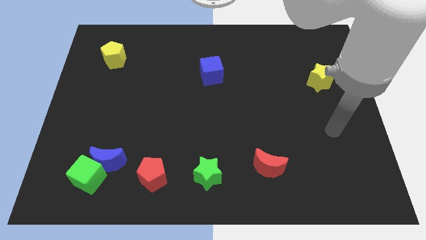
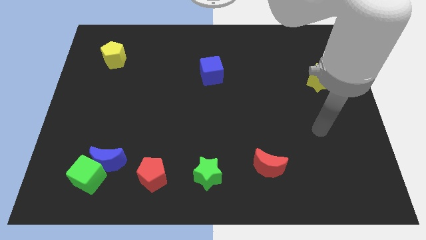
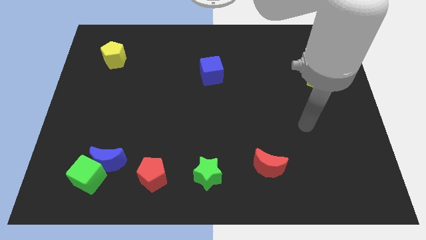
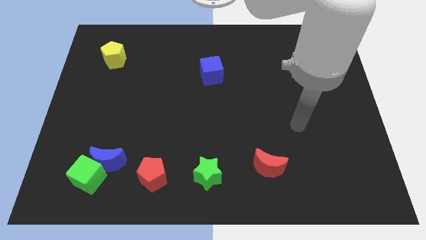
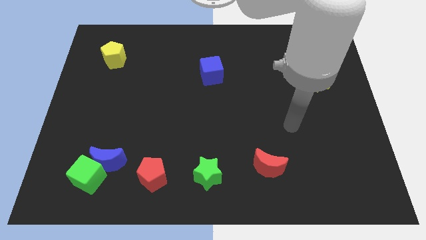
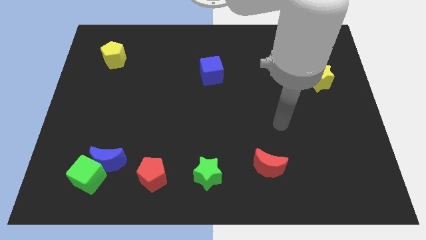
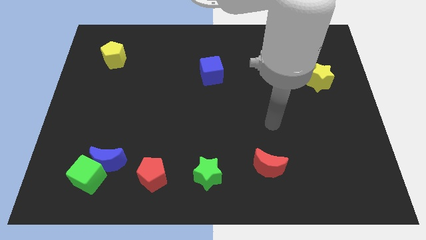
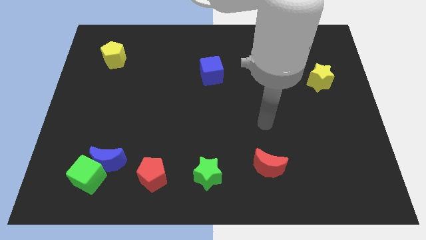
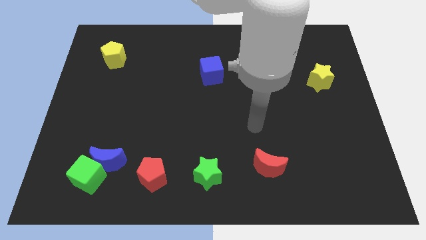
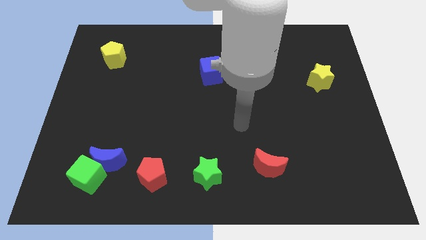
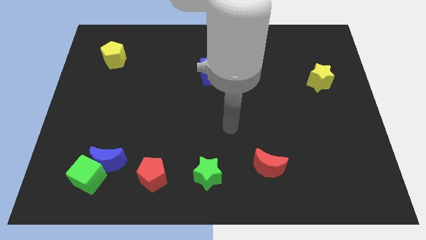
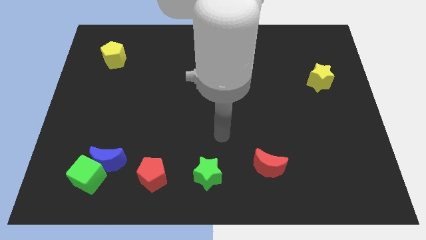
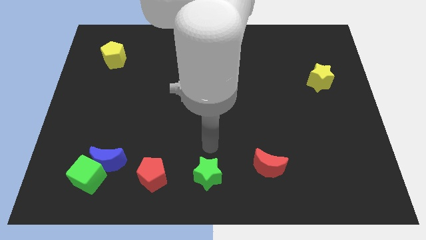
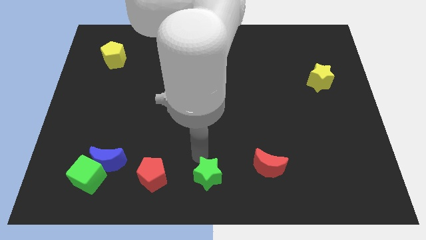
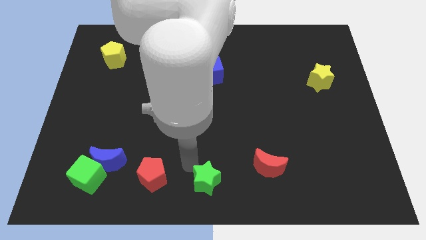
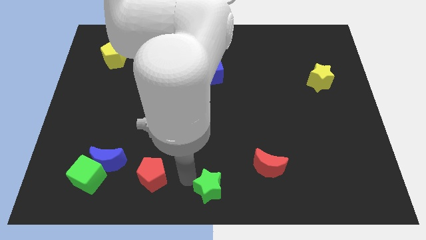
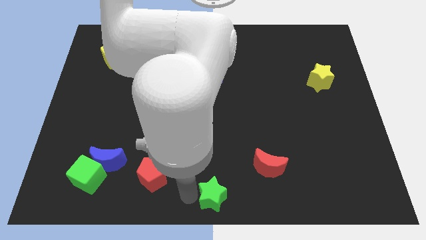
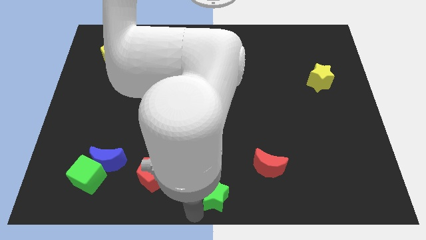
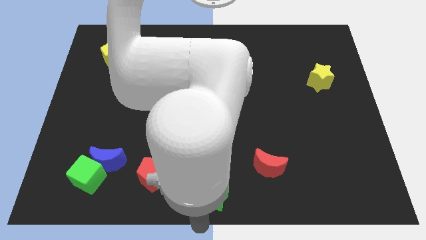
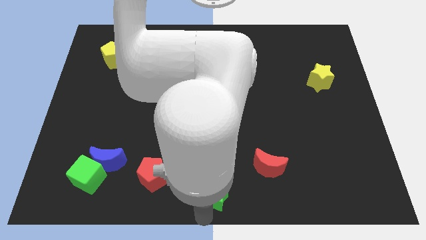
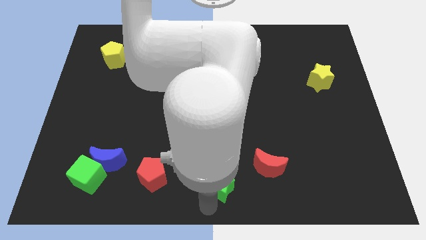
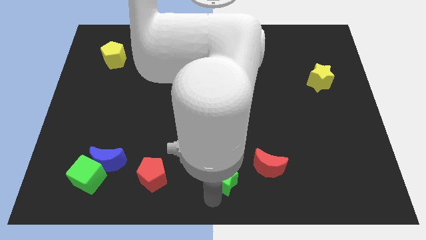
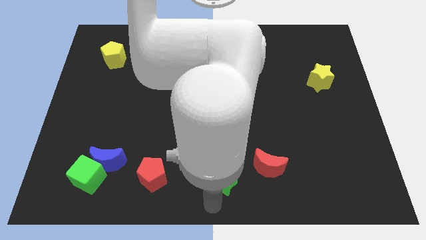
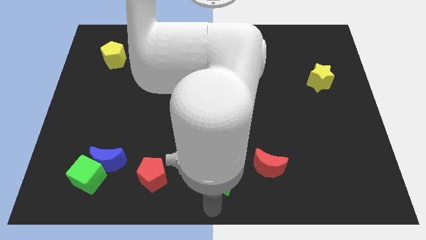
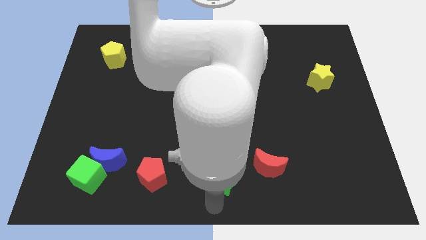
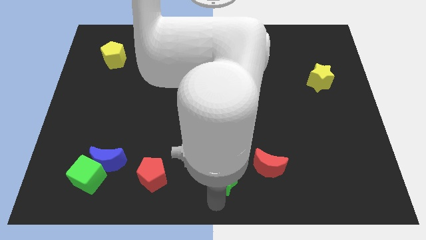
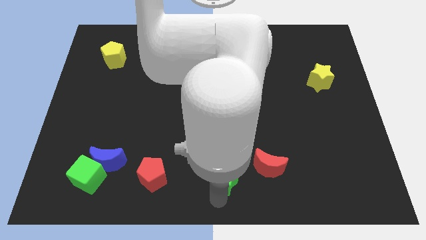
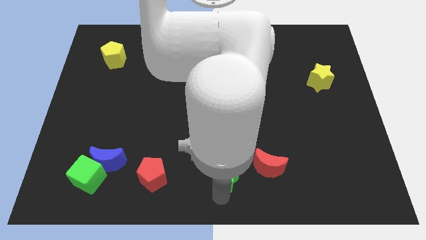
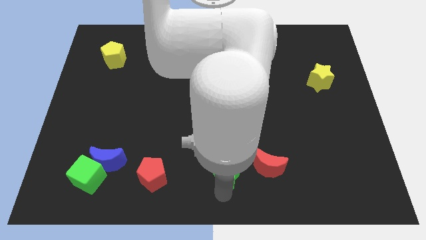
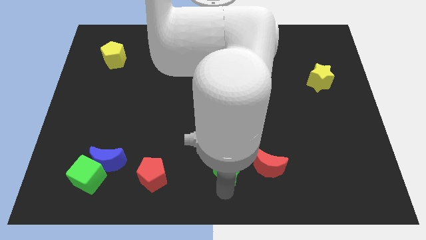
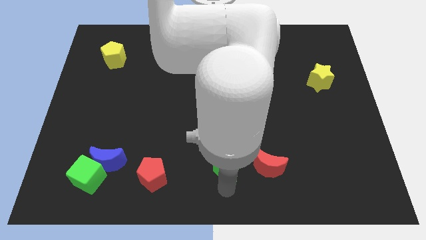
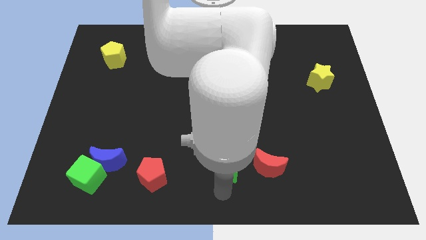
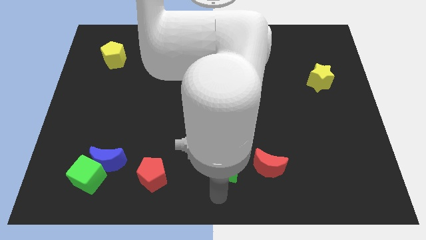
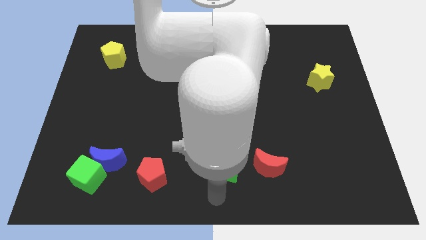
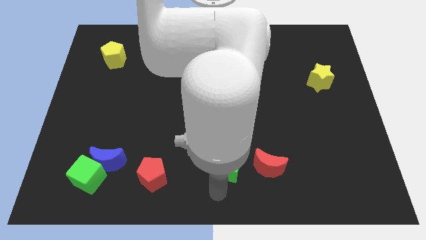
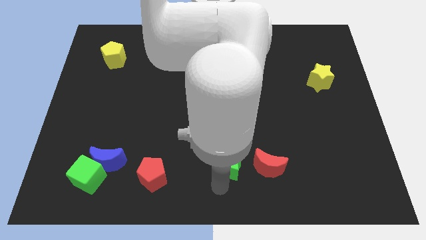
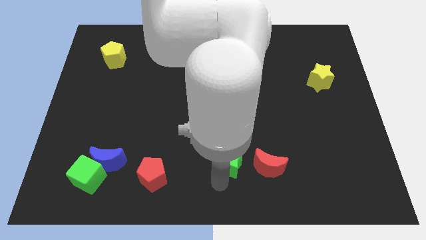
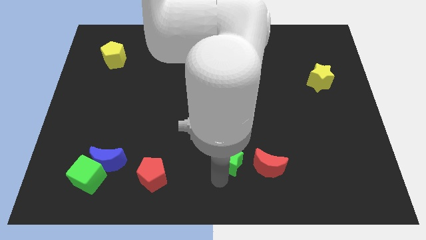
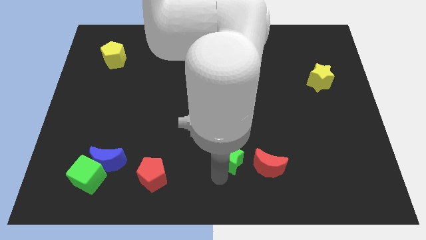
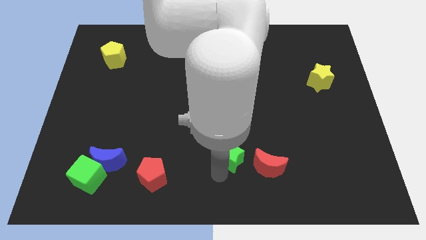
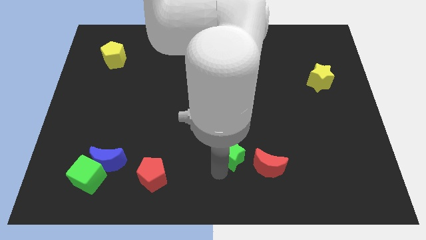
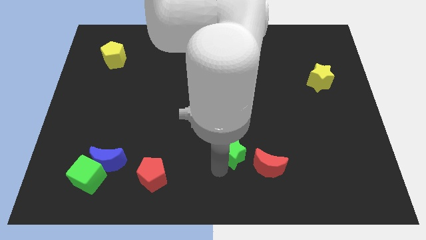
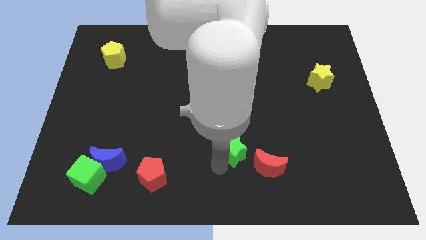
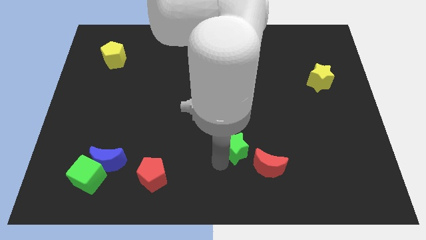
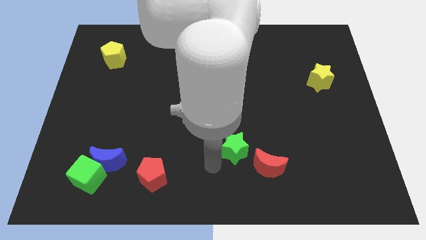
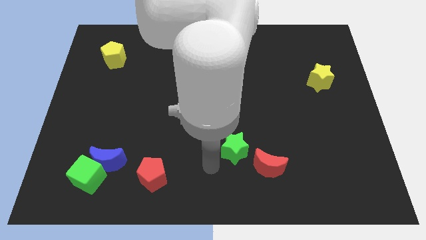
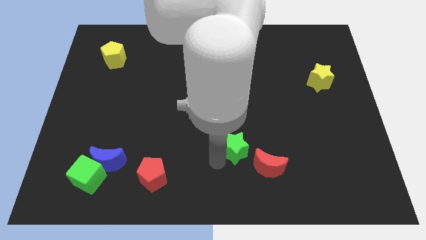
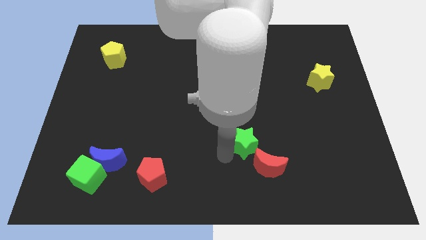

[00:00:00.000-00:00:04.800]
put the green star to the top of the red moon

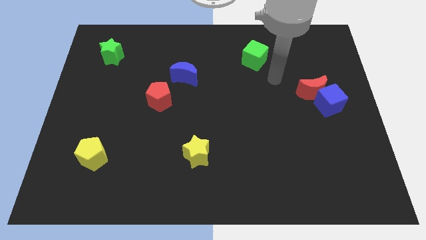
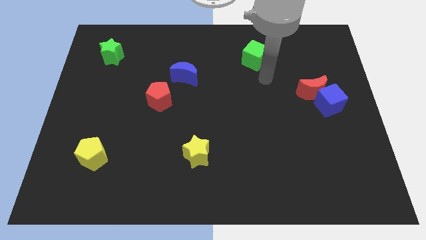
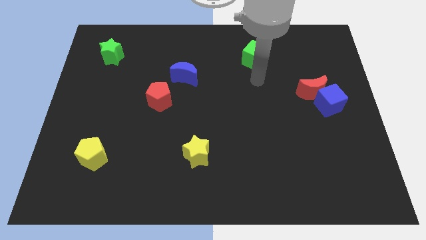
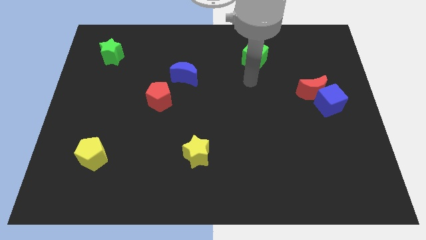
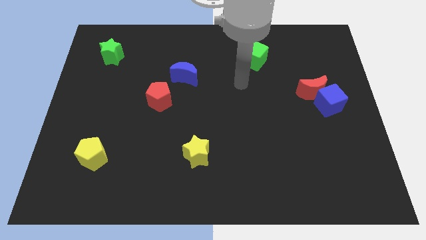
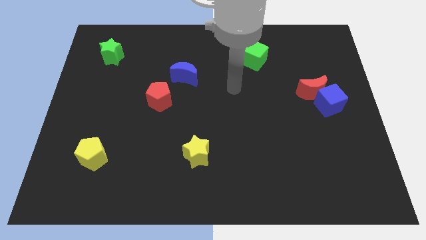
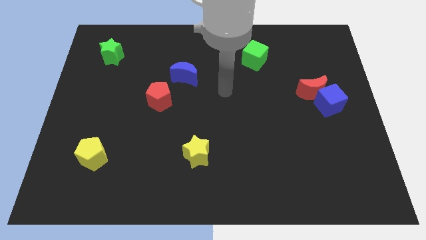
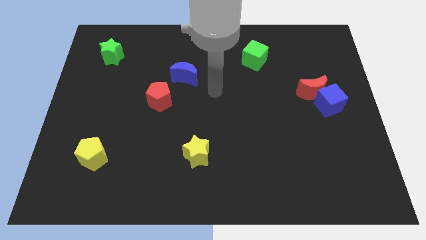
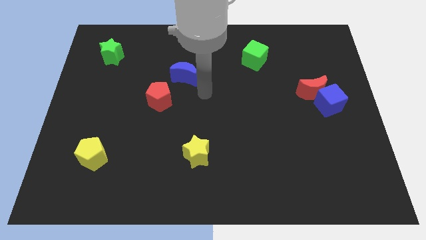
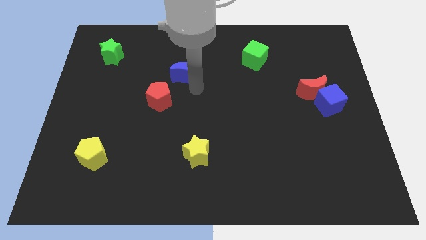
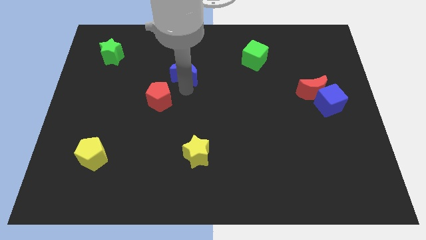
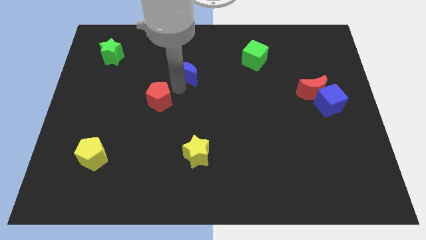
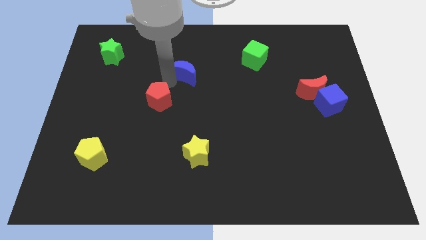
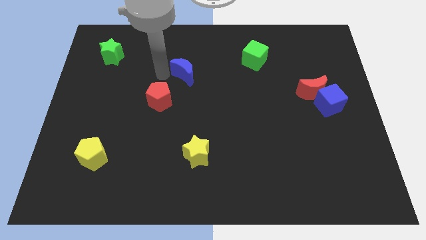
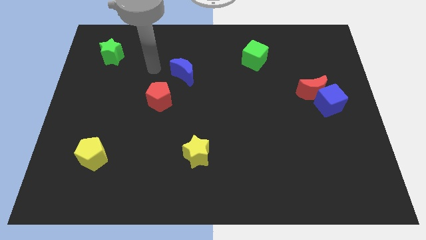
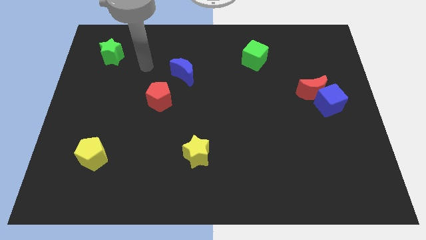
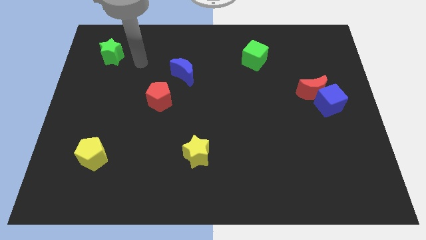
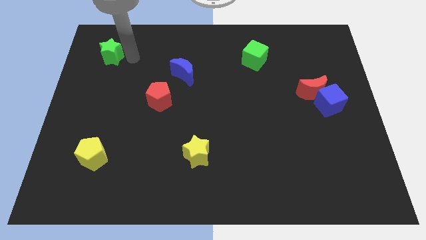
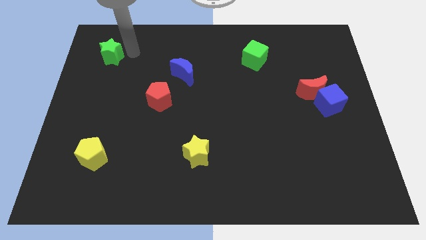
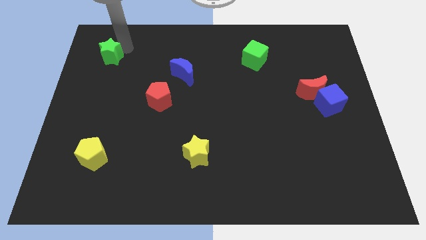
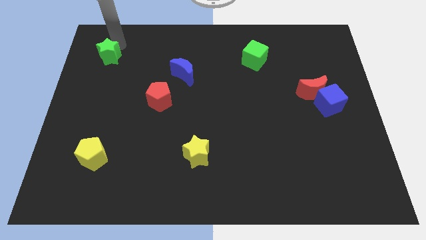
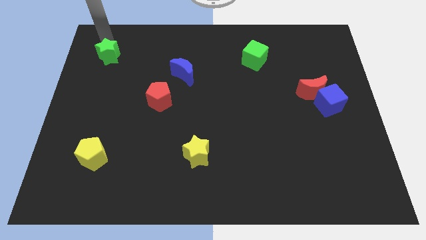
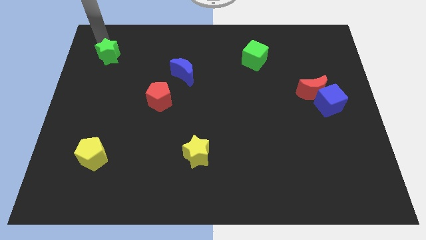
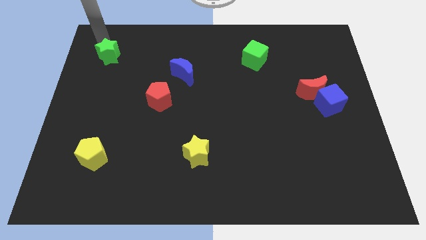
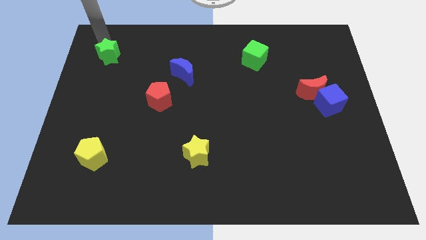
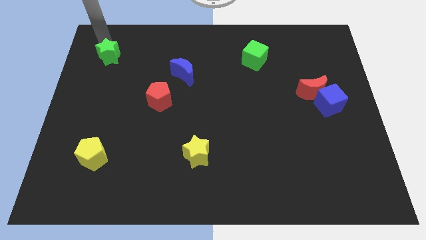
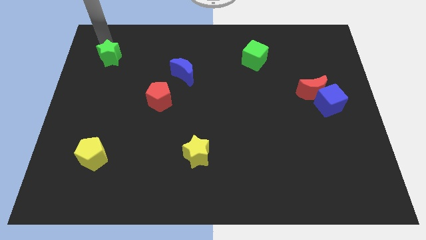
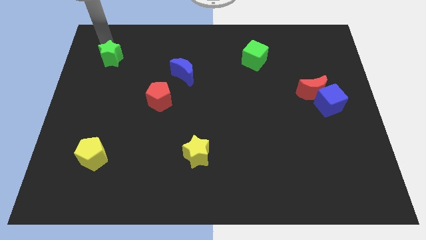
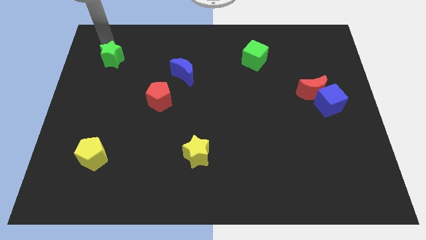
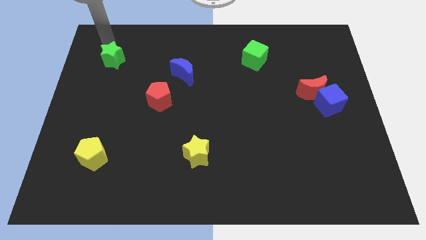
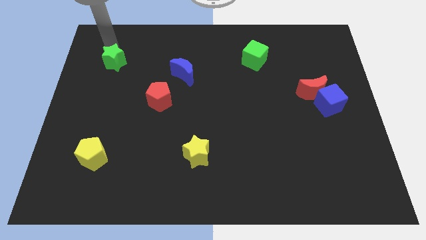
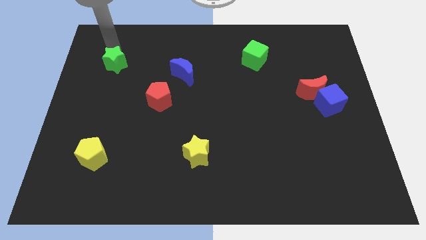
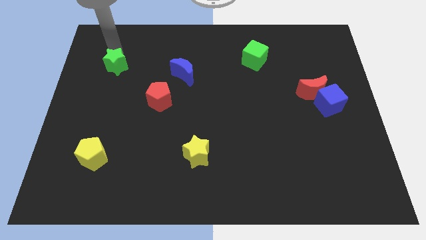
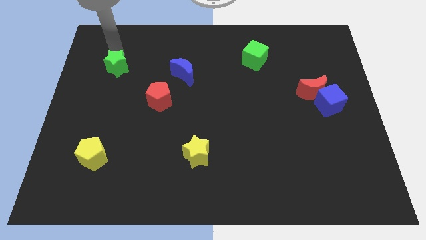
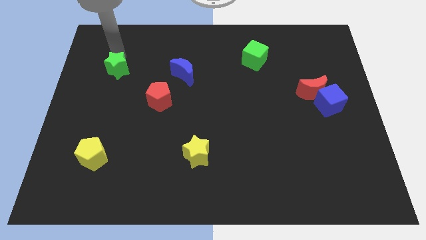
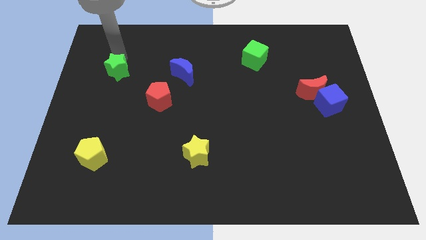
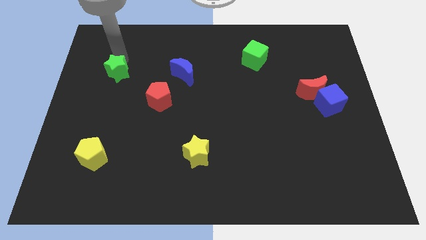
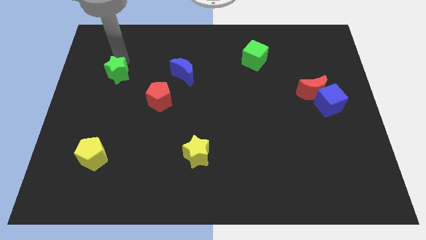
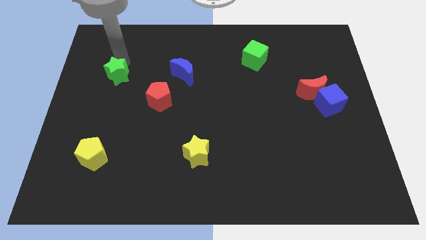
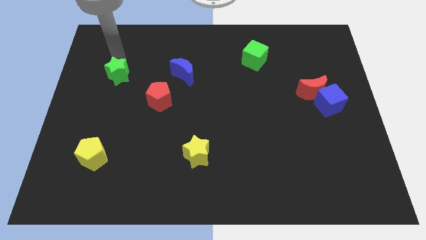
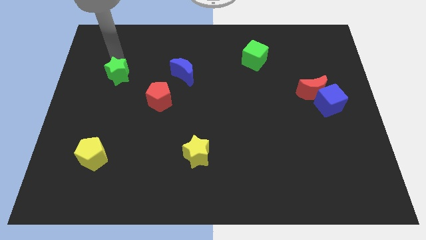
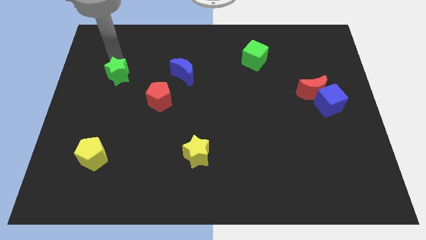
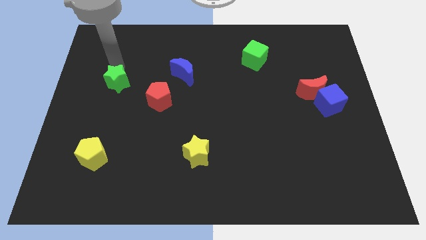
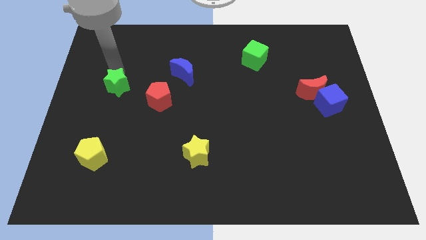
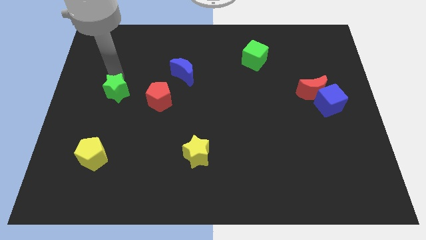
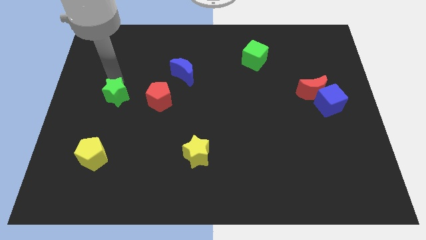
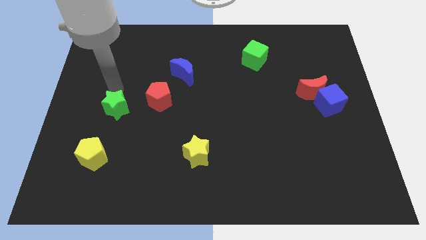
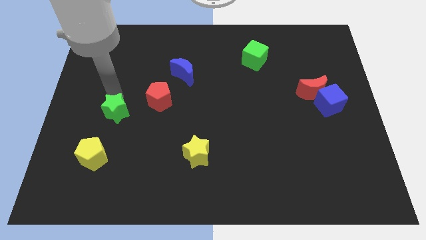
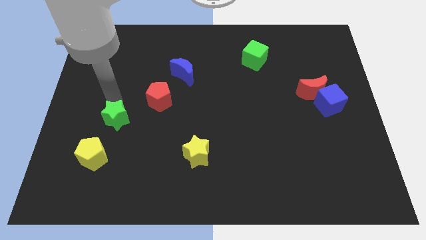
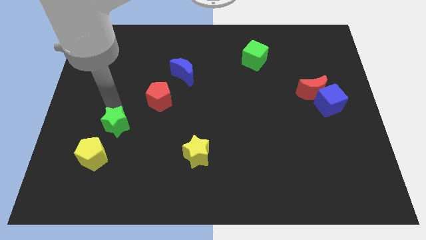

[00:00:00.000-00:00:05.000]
put the green star to the top right side of the yellow pentagon
